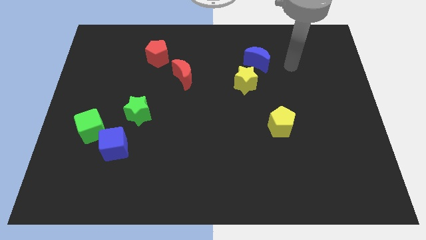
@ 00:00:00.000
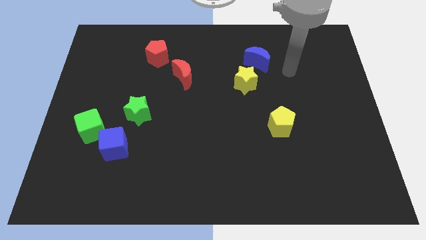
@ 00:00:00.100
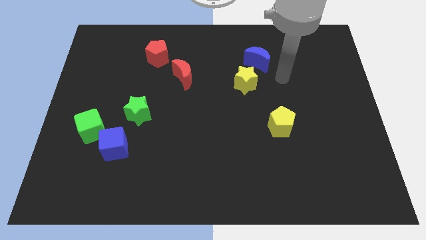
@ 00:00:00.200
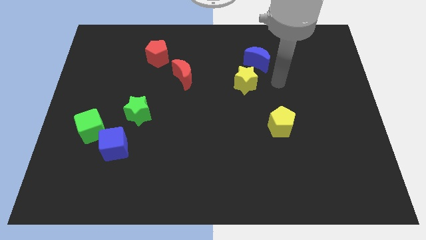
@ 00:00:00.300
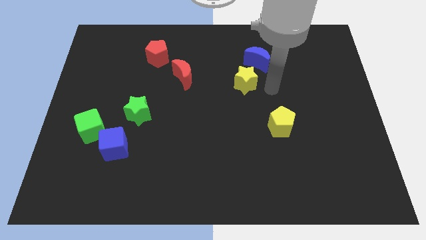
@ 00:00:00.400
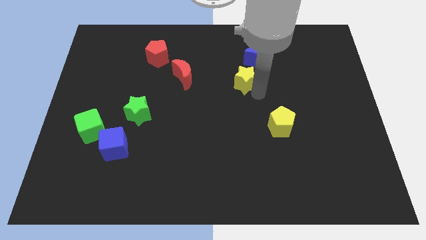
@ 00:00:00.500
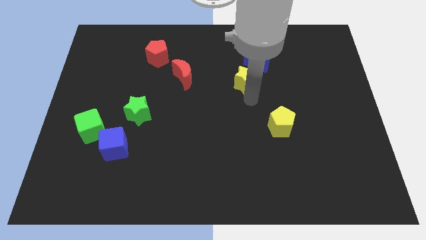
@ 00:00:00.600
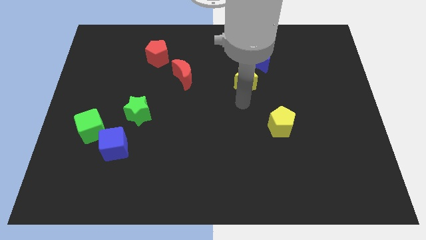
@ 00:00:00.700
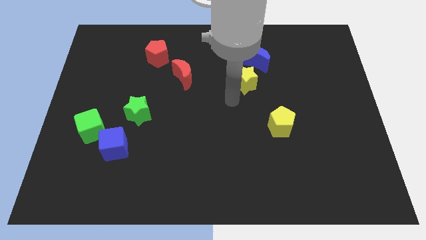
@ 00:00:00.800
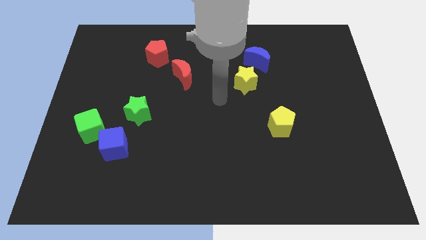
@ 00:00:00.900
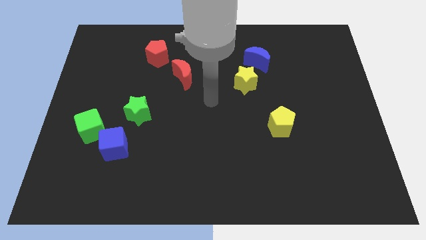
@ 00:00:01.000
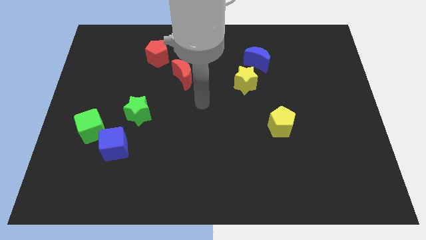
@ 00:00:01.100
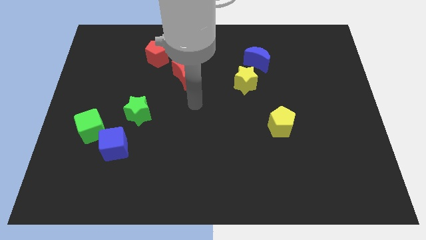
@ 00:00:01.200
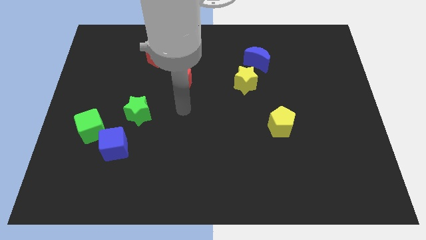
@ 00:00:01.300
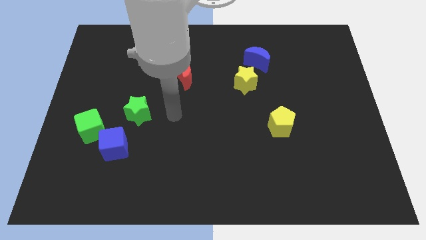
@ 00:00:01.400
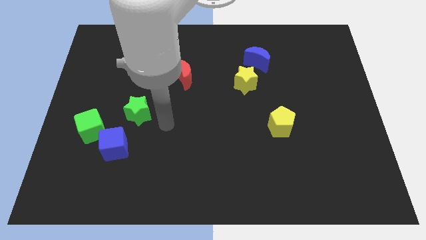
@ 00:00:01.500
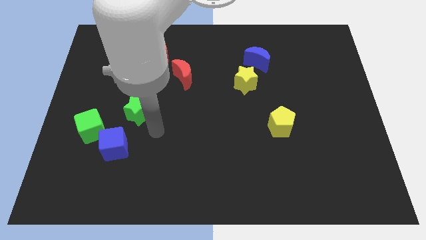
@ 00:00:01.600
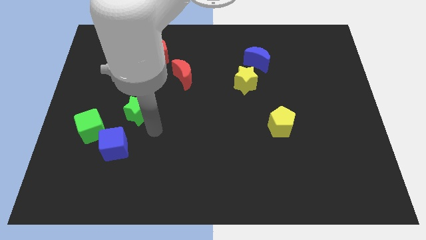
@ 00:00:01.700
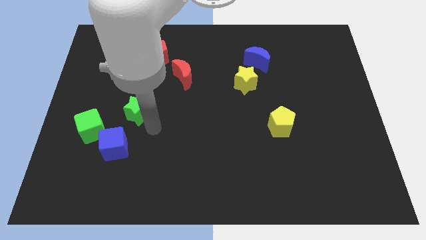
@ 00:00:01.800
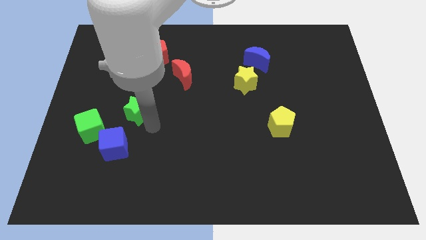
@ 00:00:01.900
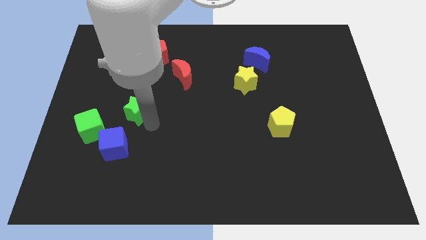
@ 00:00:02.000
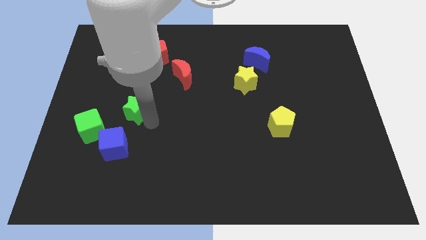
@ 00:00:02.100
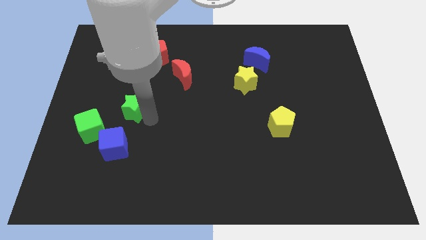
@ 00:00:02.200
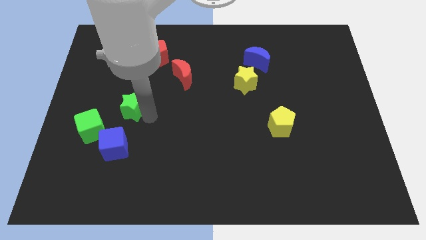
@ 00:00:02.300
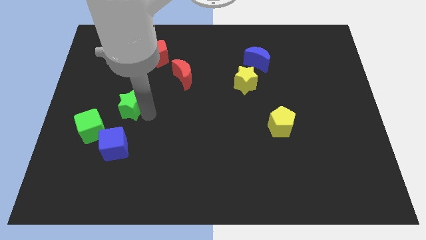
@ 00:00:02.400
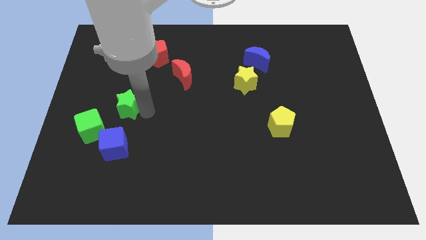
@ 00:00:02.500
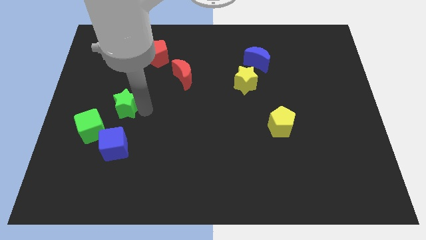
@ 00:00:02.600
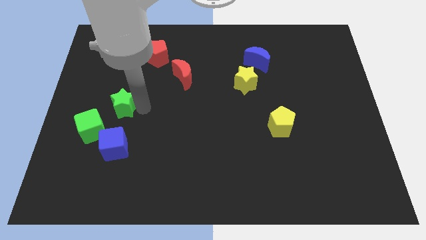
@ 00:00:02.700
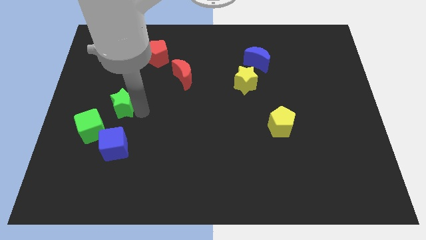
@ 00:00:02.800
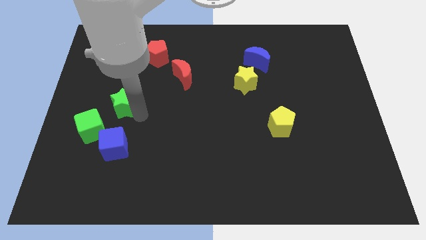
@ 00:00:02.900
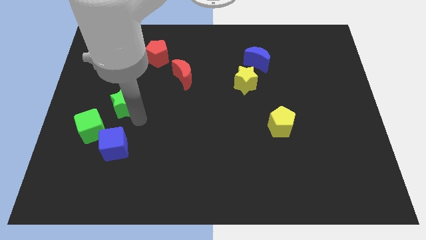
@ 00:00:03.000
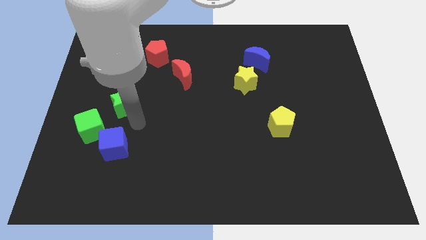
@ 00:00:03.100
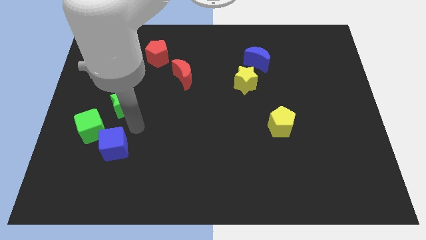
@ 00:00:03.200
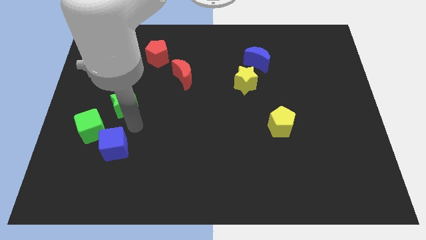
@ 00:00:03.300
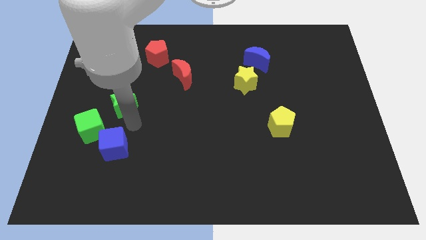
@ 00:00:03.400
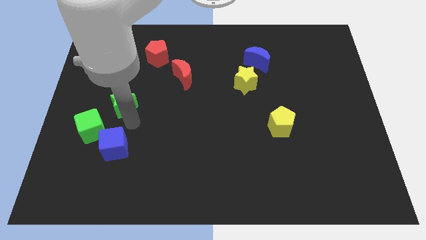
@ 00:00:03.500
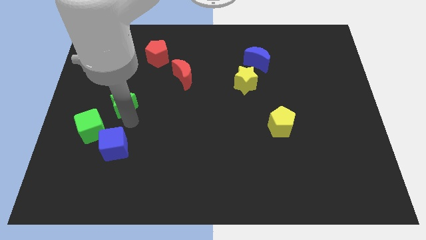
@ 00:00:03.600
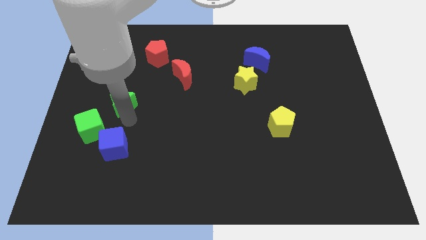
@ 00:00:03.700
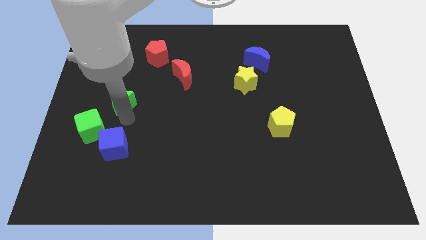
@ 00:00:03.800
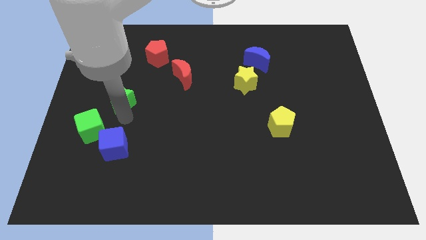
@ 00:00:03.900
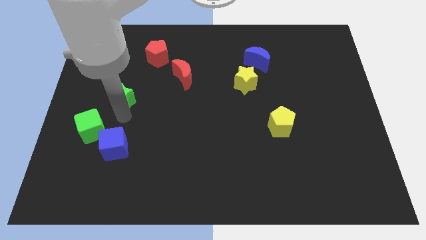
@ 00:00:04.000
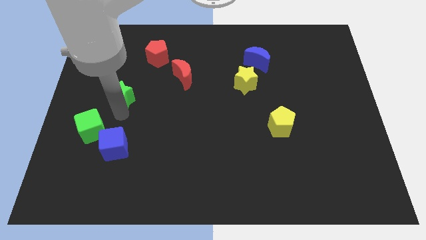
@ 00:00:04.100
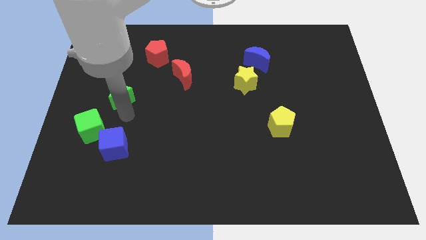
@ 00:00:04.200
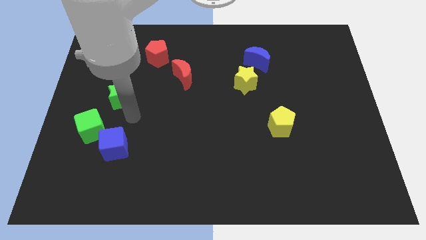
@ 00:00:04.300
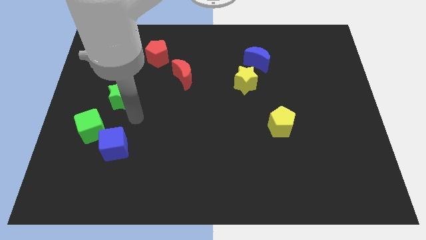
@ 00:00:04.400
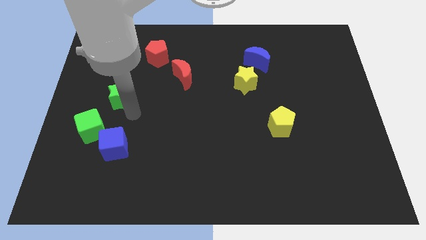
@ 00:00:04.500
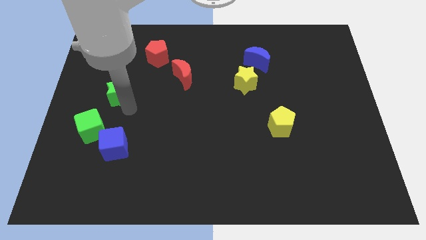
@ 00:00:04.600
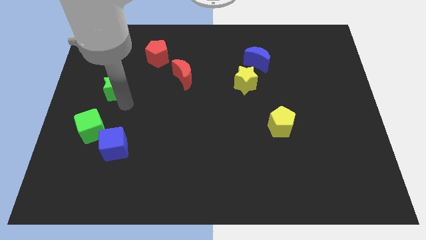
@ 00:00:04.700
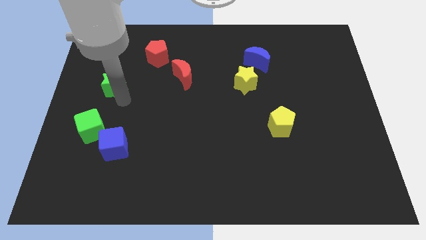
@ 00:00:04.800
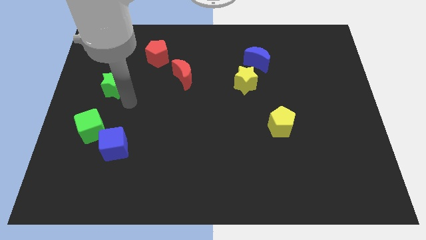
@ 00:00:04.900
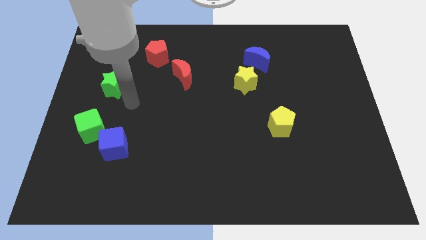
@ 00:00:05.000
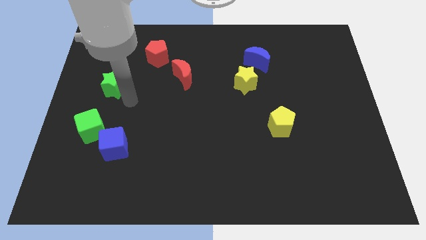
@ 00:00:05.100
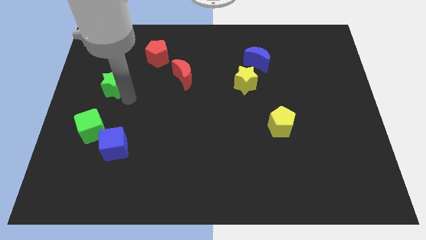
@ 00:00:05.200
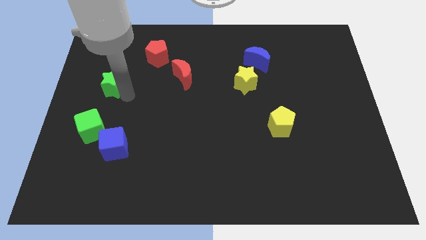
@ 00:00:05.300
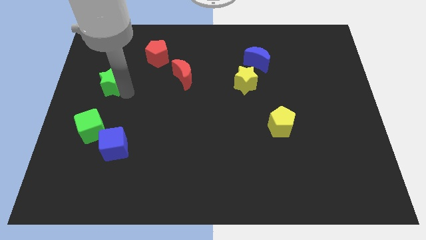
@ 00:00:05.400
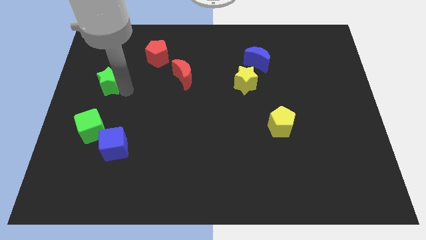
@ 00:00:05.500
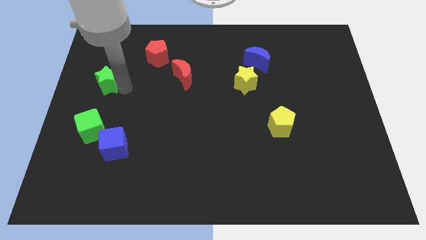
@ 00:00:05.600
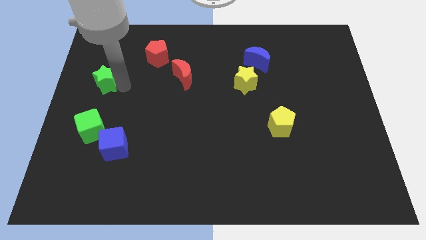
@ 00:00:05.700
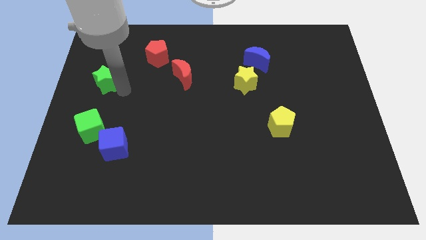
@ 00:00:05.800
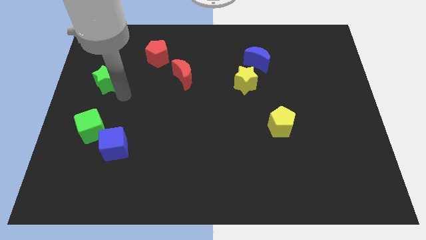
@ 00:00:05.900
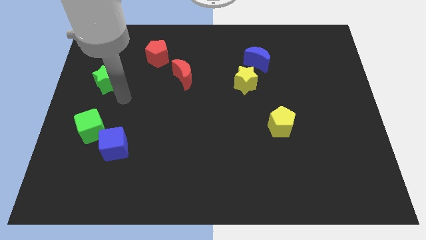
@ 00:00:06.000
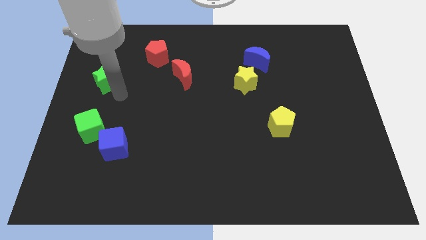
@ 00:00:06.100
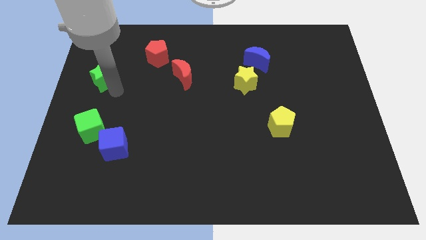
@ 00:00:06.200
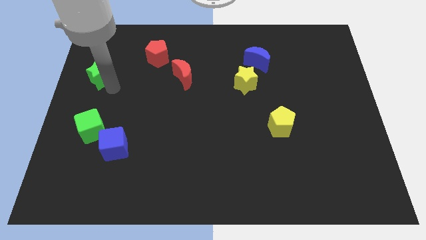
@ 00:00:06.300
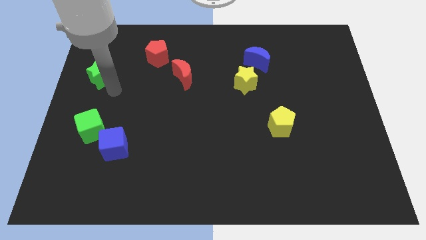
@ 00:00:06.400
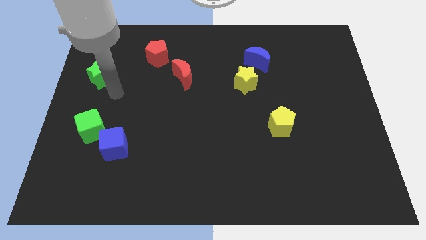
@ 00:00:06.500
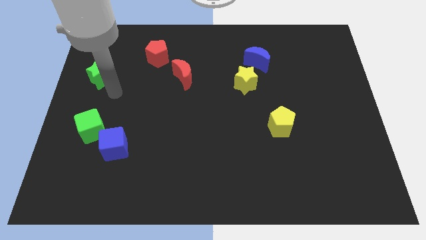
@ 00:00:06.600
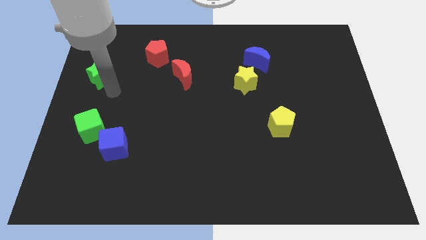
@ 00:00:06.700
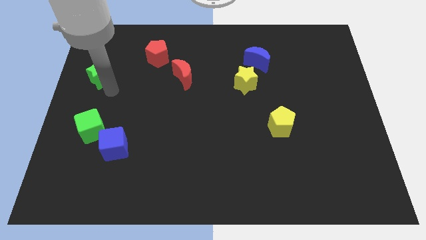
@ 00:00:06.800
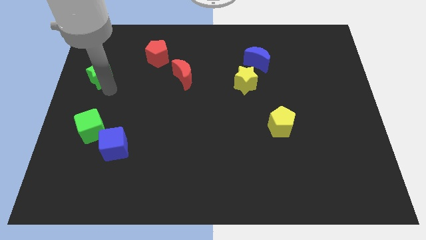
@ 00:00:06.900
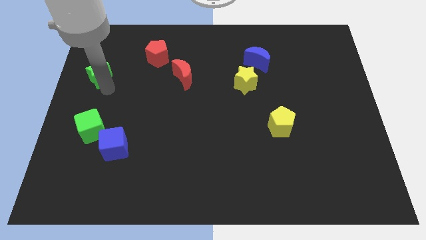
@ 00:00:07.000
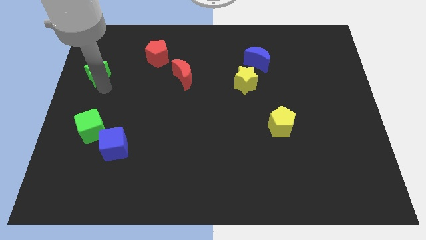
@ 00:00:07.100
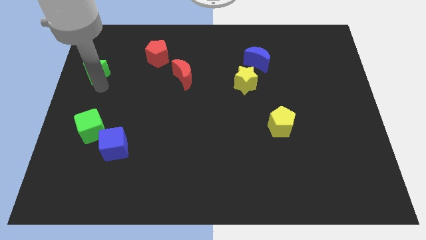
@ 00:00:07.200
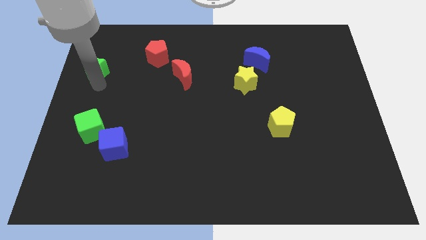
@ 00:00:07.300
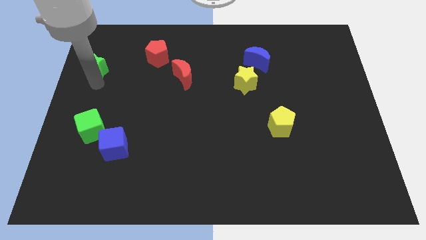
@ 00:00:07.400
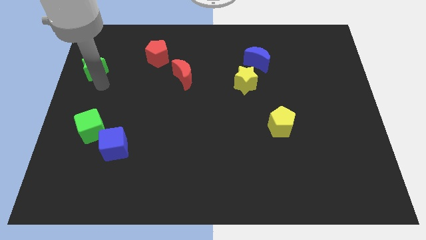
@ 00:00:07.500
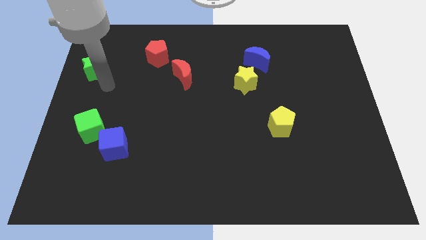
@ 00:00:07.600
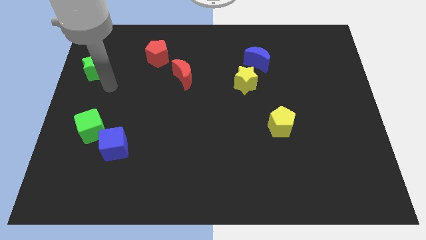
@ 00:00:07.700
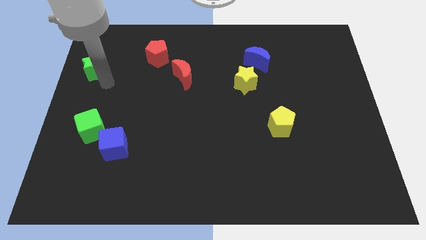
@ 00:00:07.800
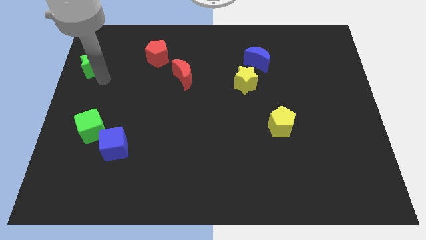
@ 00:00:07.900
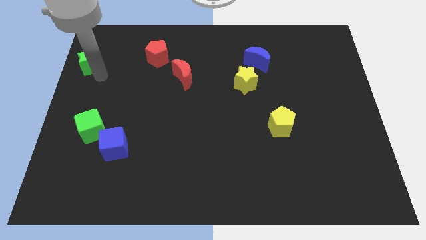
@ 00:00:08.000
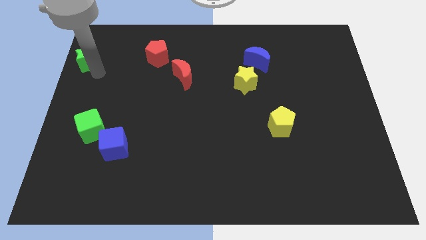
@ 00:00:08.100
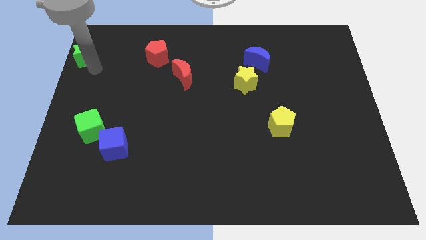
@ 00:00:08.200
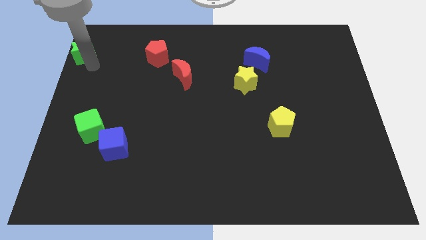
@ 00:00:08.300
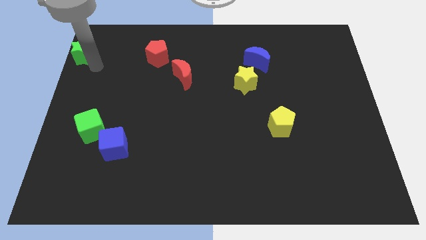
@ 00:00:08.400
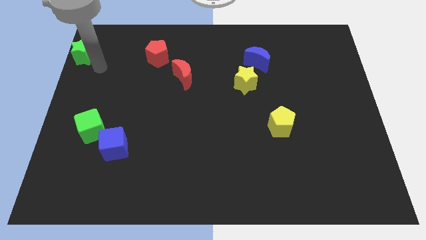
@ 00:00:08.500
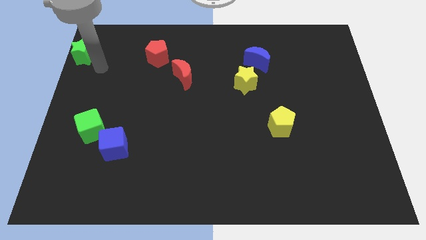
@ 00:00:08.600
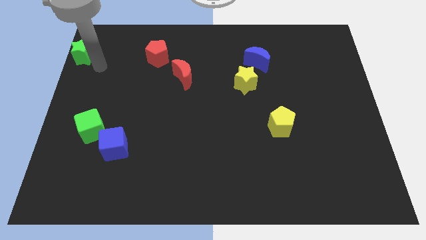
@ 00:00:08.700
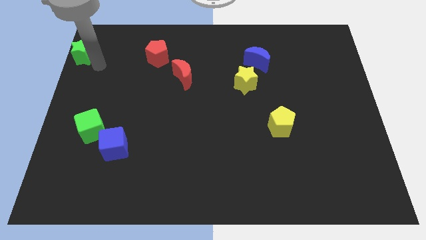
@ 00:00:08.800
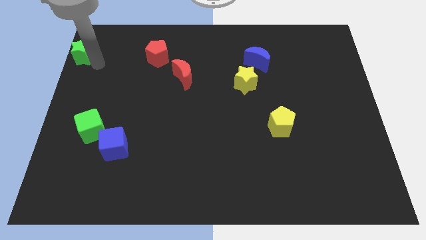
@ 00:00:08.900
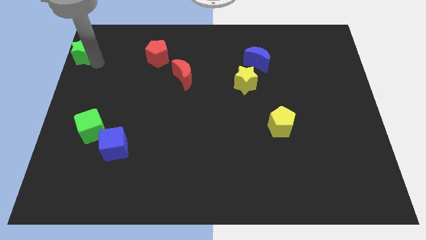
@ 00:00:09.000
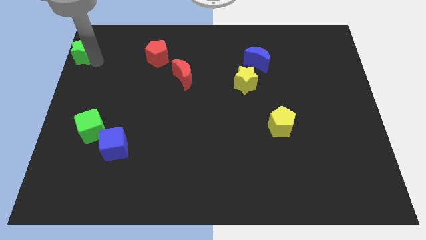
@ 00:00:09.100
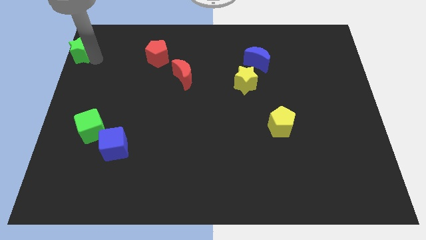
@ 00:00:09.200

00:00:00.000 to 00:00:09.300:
push the green star to the top left corner
